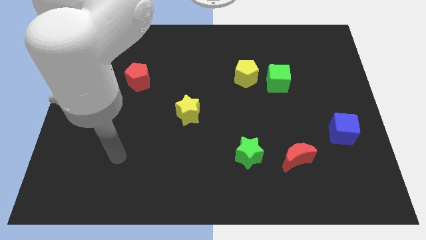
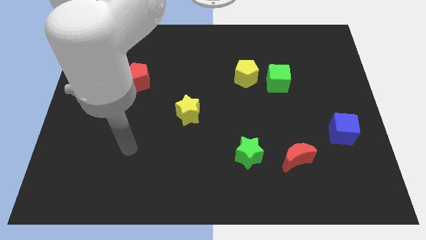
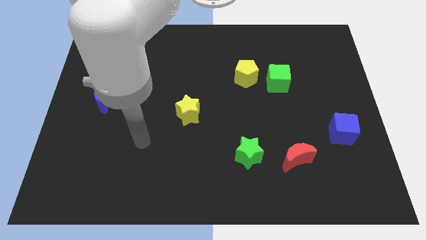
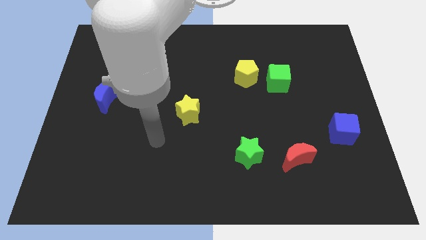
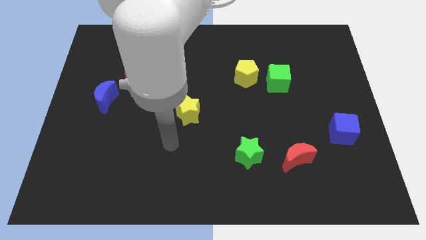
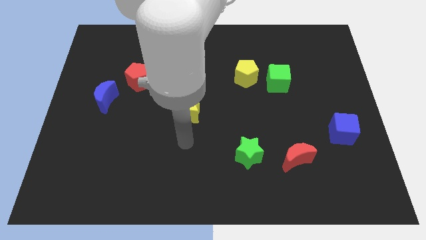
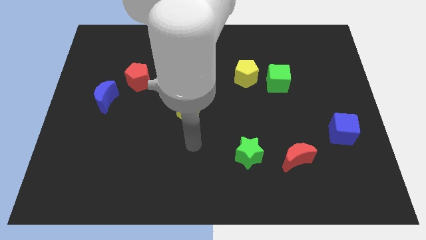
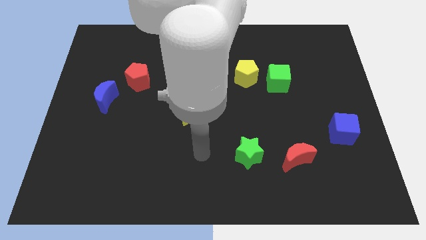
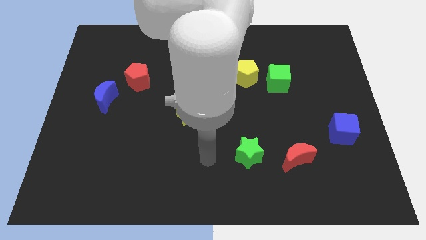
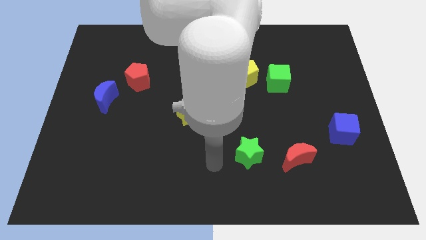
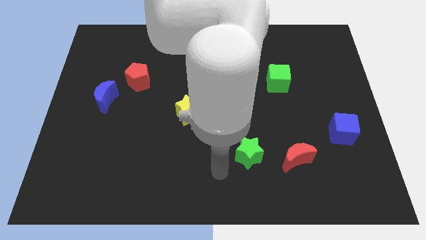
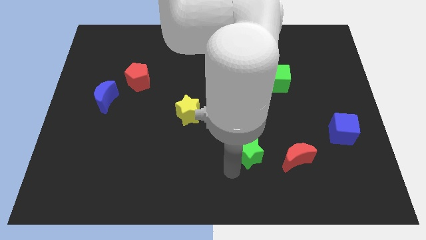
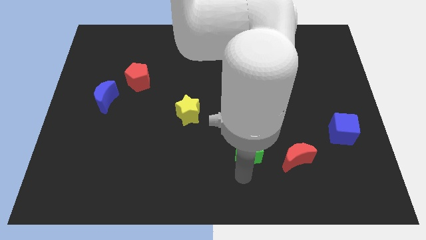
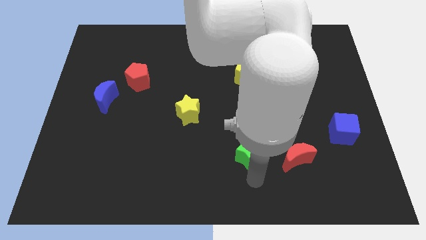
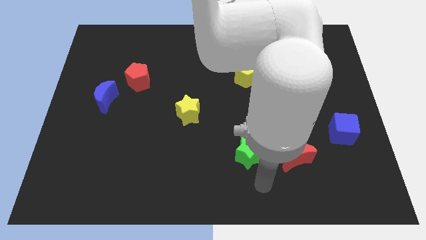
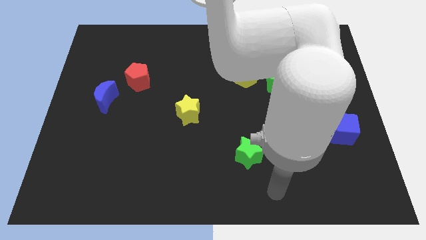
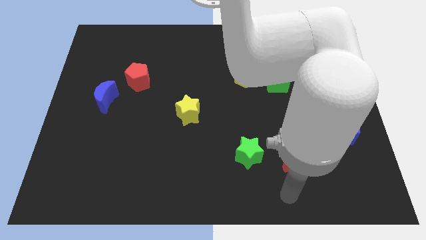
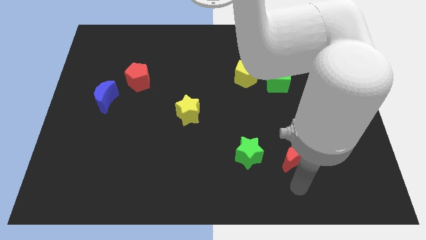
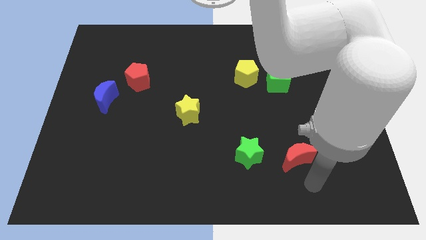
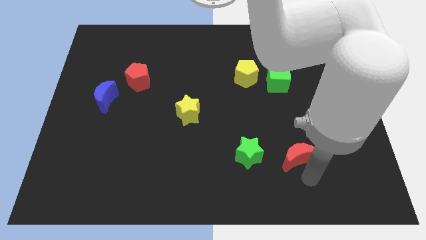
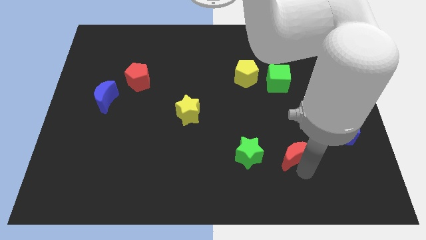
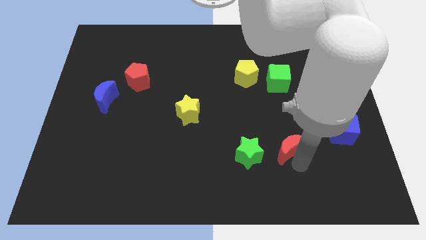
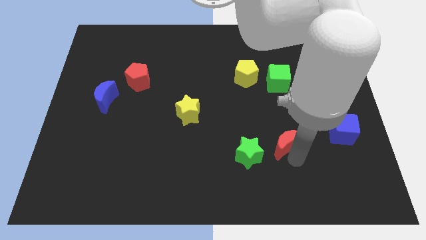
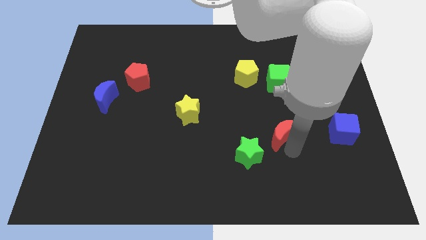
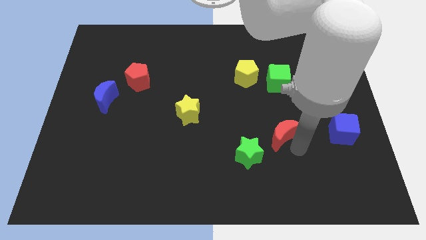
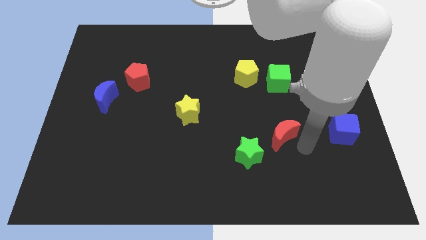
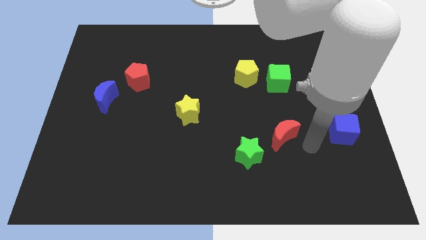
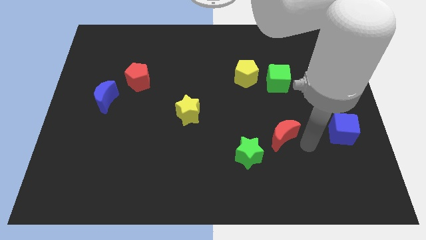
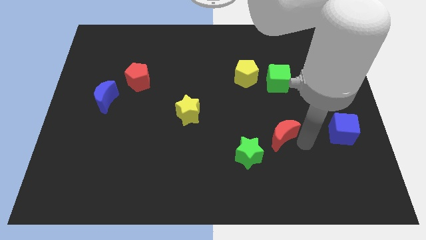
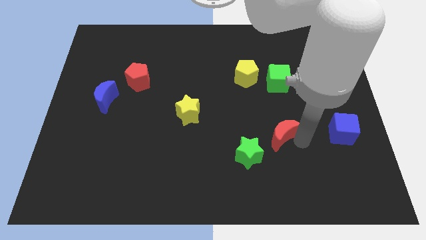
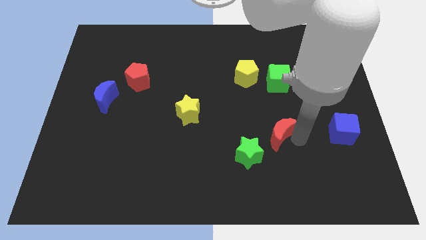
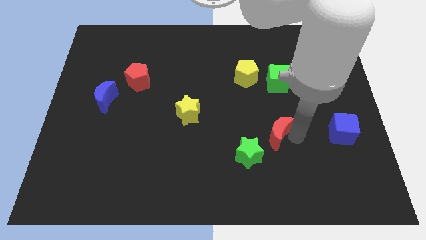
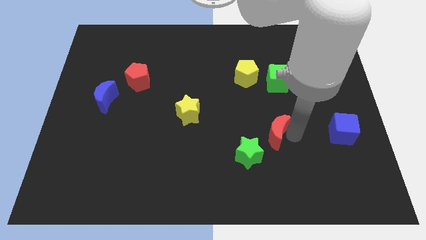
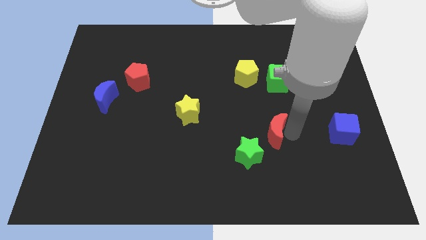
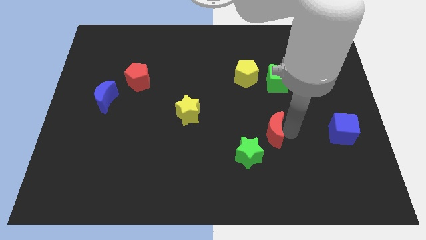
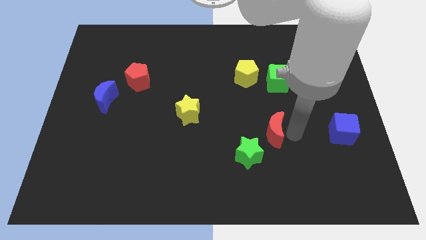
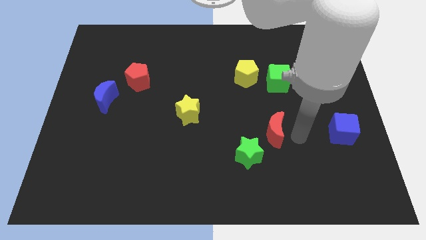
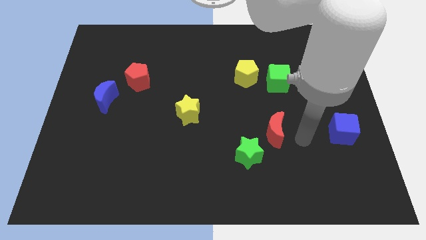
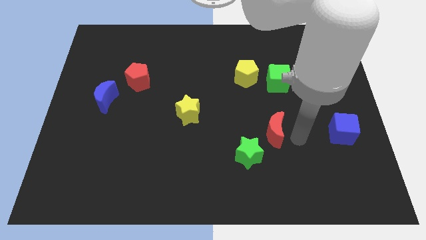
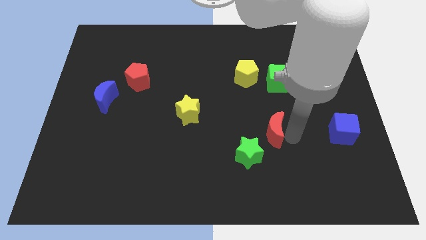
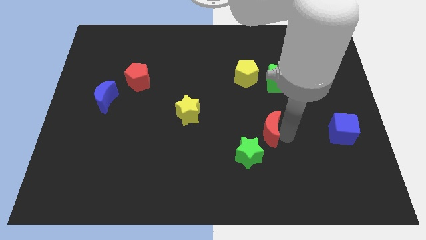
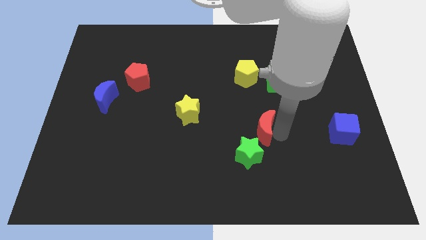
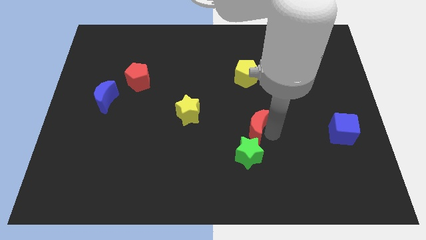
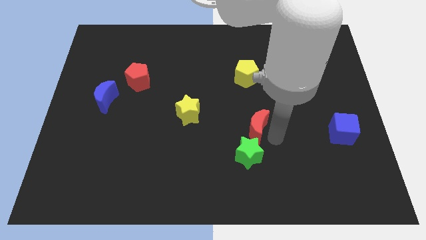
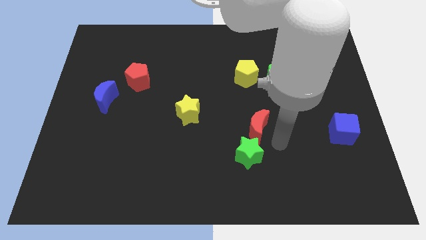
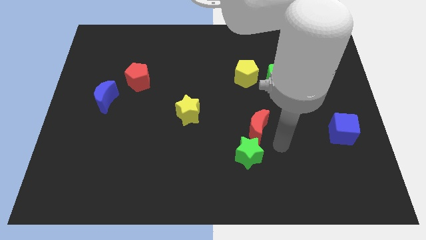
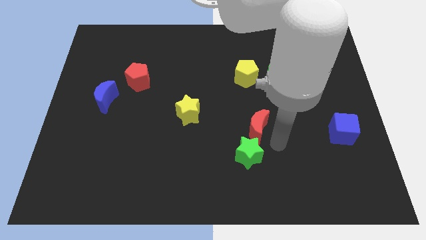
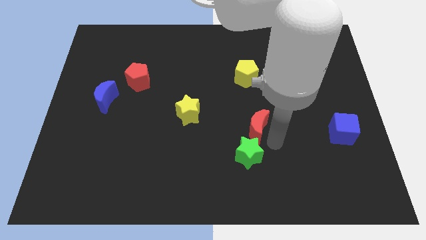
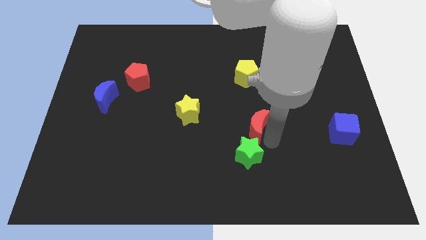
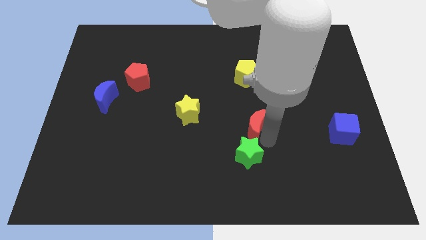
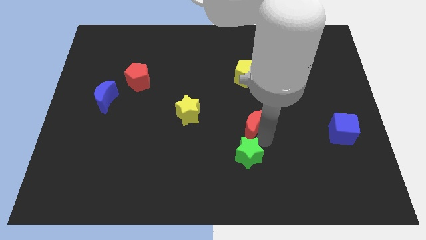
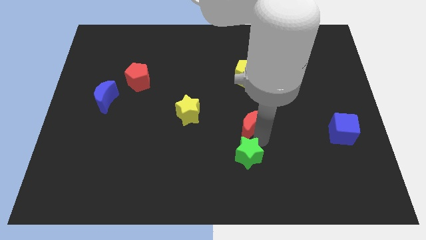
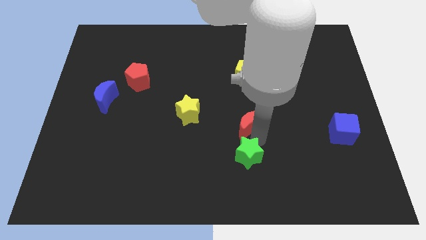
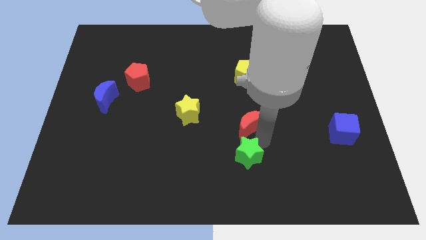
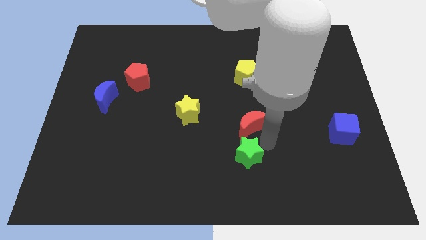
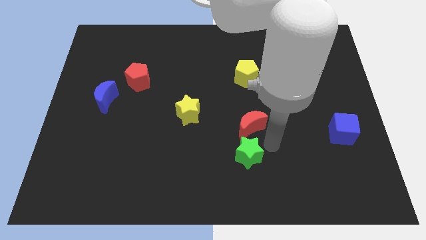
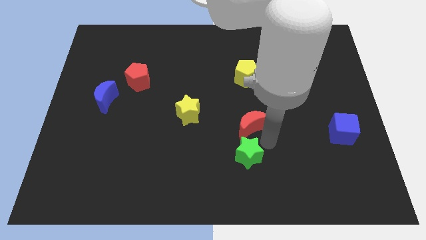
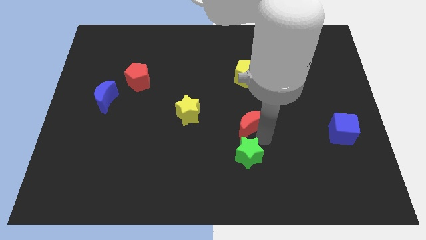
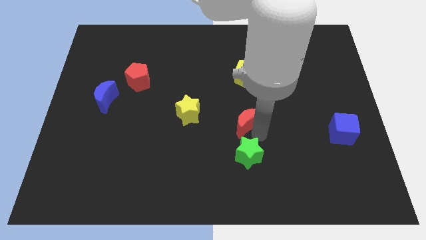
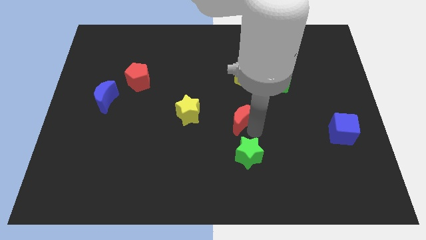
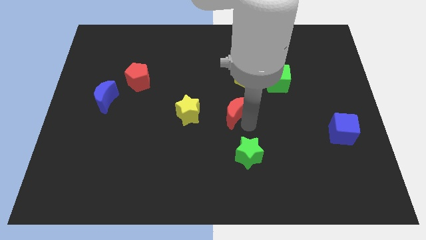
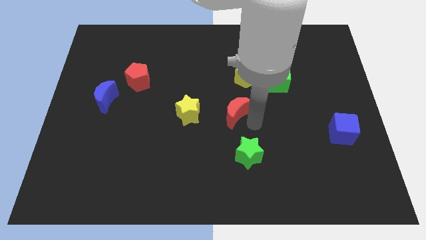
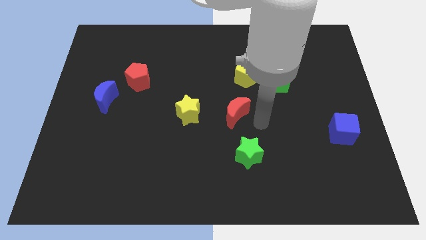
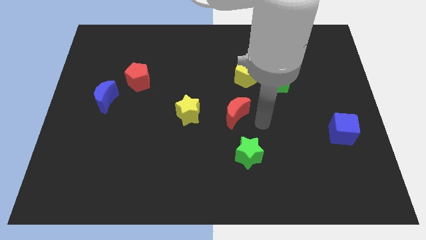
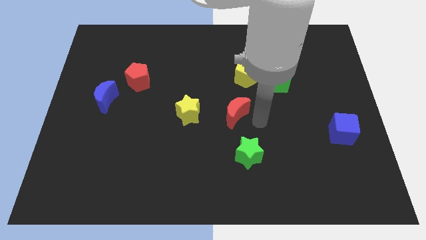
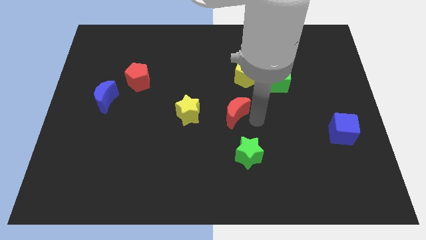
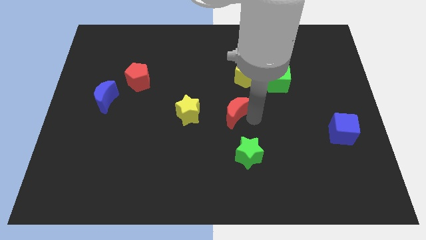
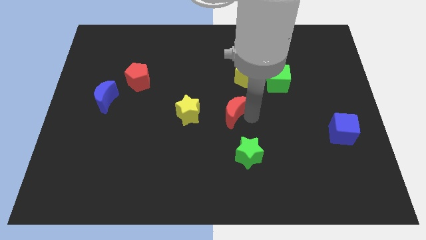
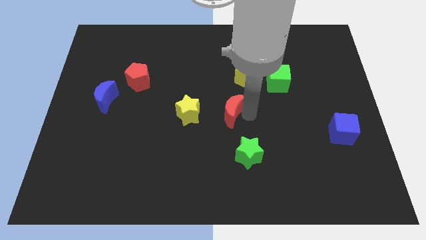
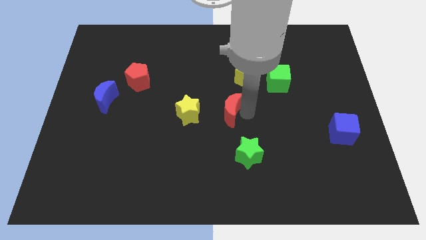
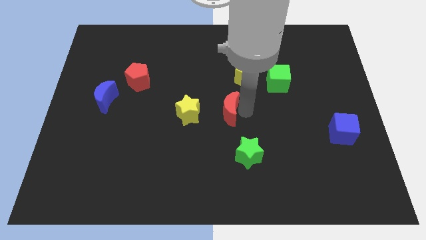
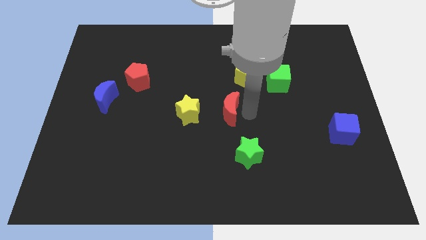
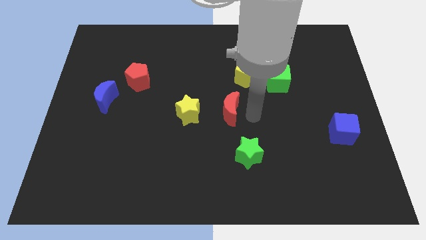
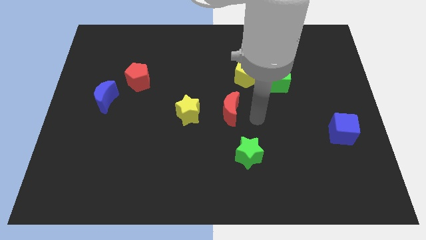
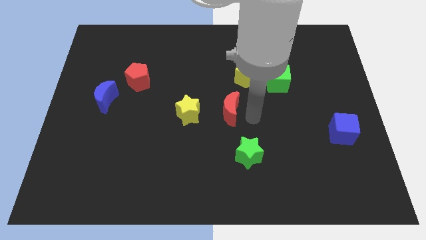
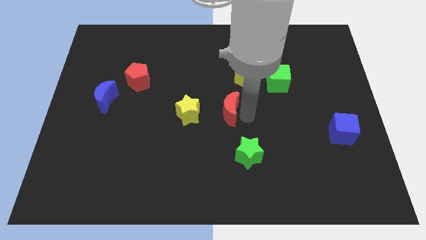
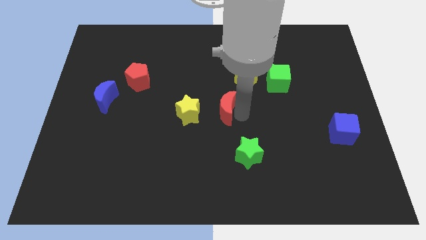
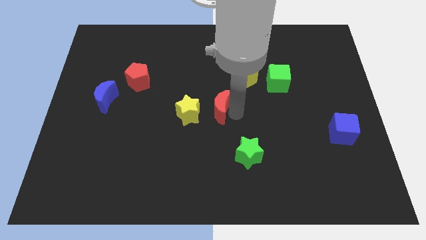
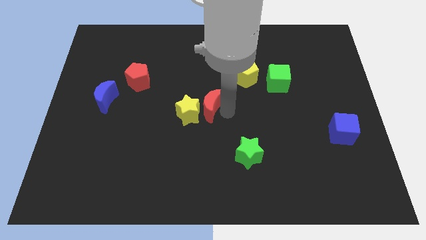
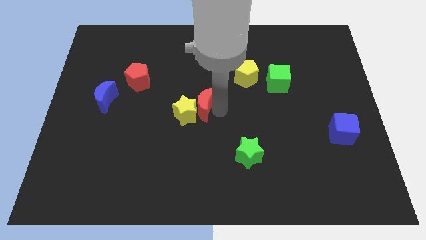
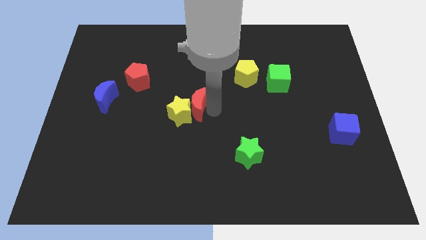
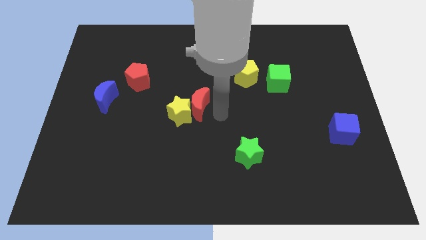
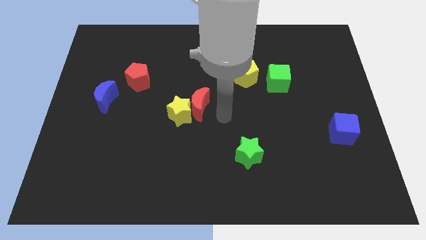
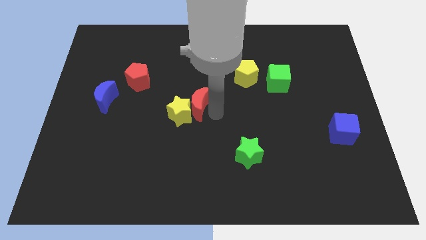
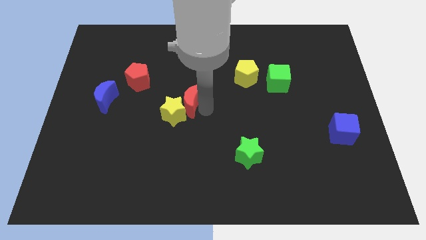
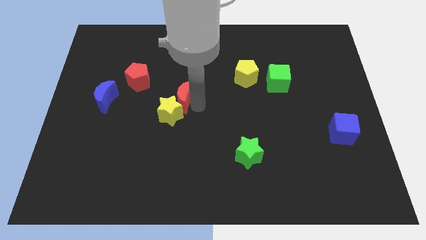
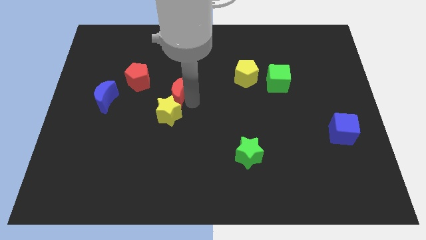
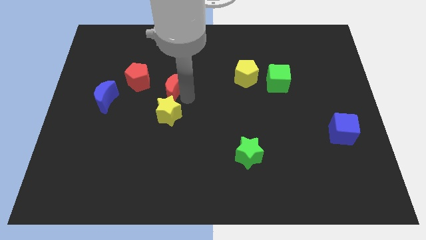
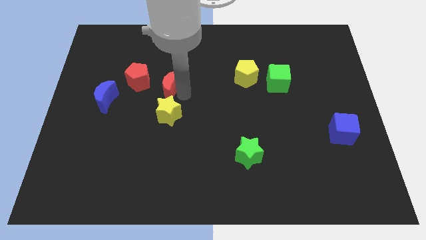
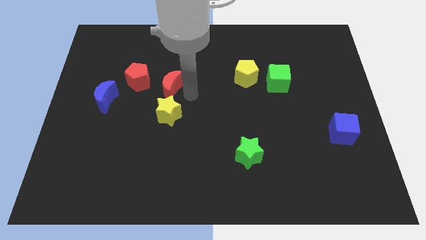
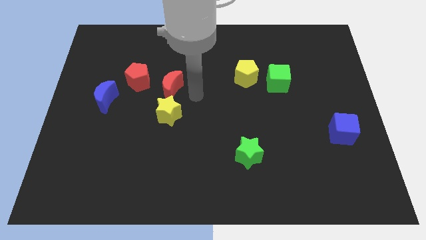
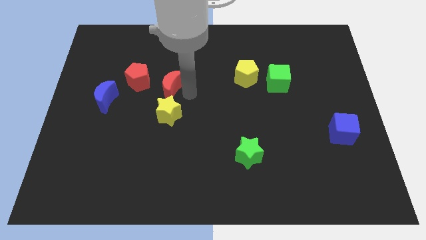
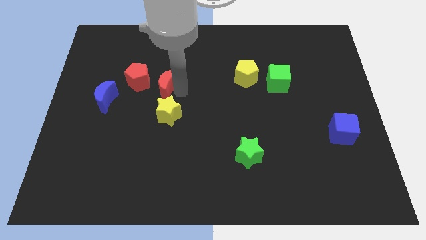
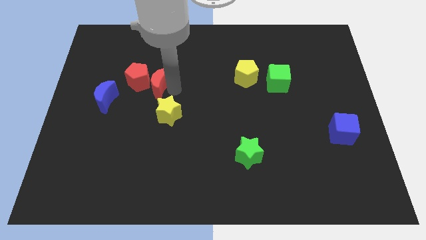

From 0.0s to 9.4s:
push the red moon next to the red pentagon
